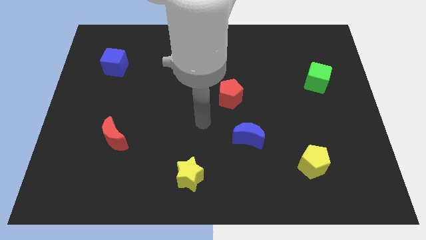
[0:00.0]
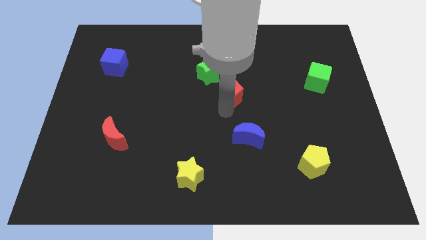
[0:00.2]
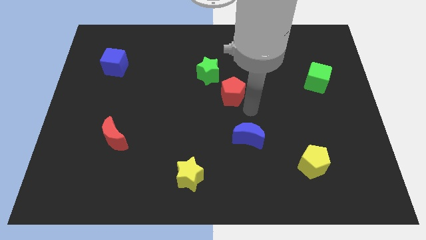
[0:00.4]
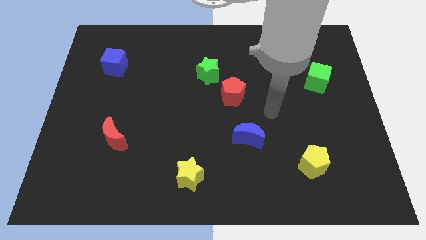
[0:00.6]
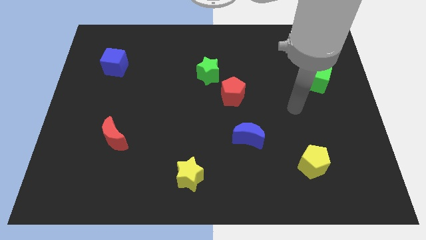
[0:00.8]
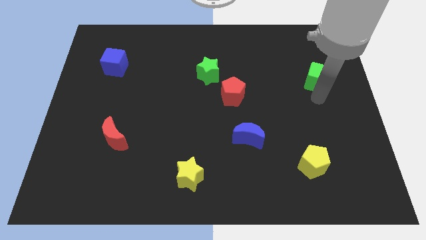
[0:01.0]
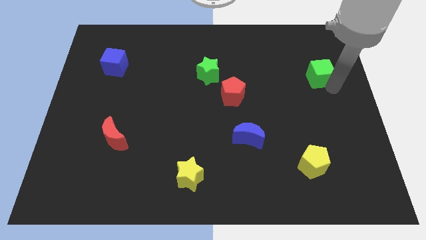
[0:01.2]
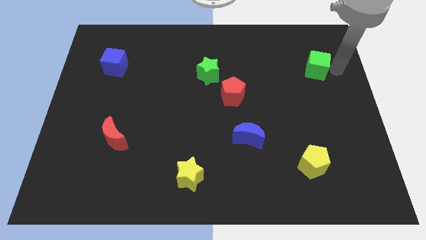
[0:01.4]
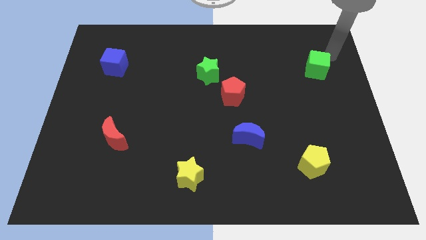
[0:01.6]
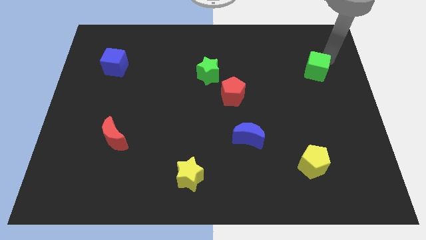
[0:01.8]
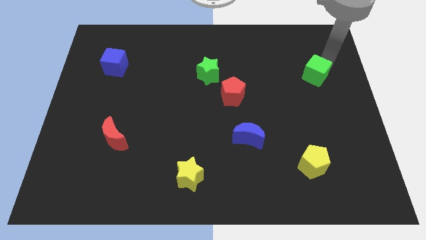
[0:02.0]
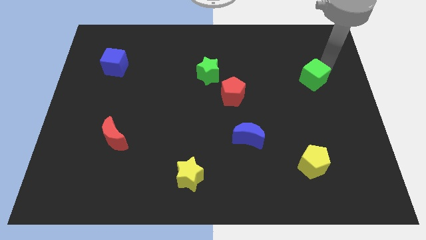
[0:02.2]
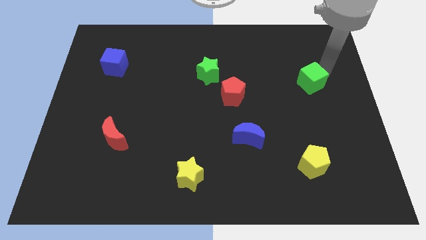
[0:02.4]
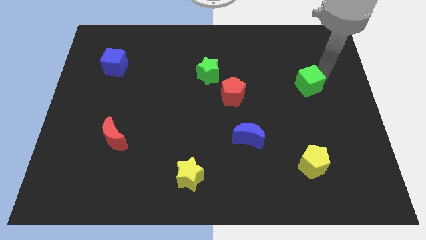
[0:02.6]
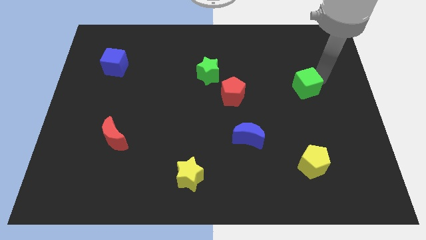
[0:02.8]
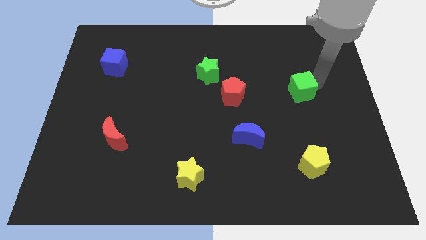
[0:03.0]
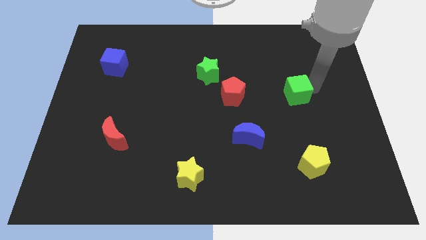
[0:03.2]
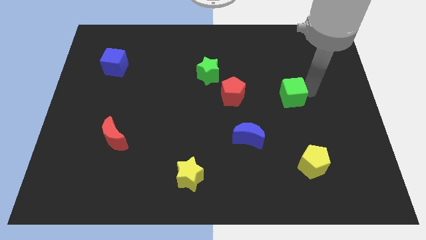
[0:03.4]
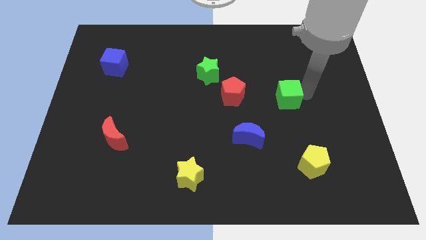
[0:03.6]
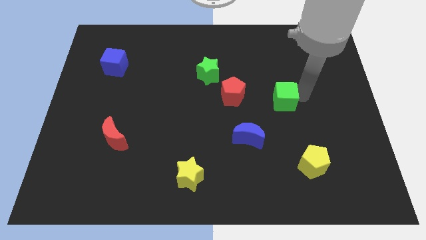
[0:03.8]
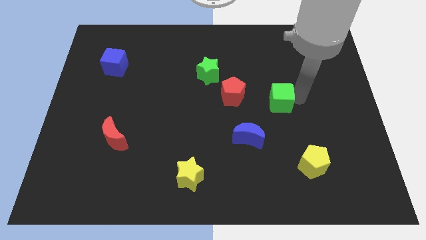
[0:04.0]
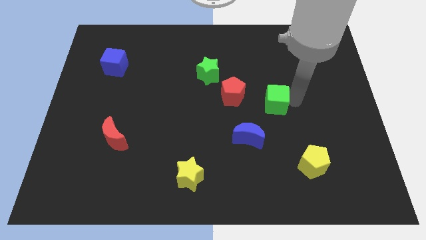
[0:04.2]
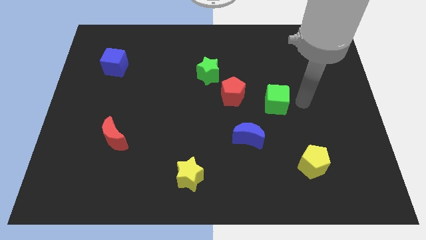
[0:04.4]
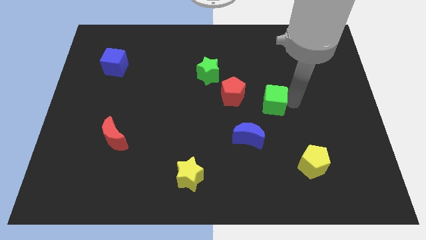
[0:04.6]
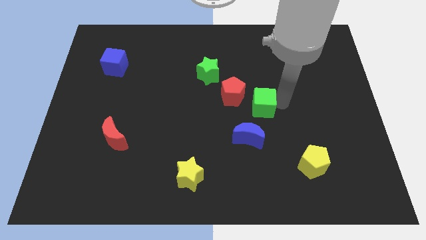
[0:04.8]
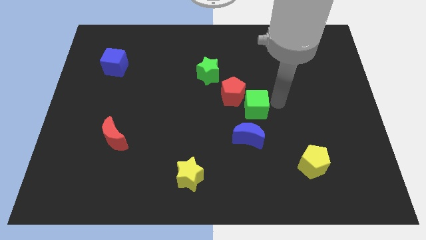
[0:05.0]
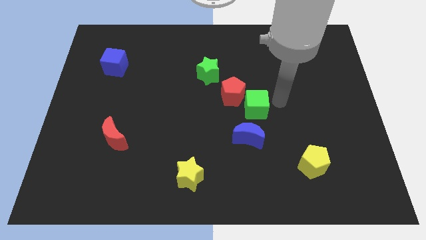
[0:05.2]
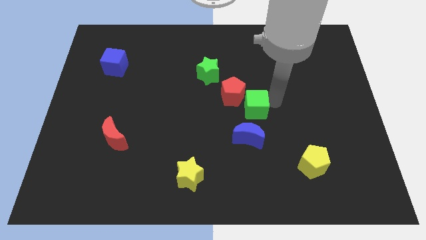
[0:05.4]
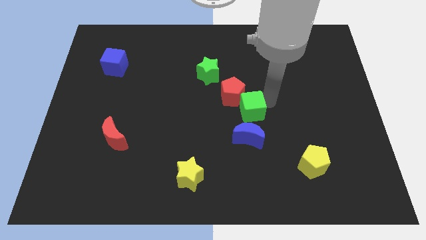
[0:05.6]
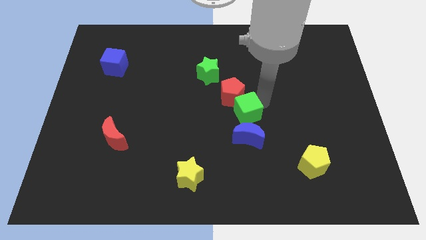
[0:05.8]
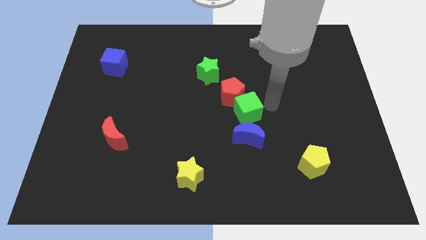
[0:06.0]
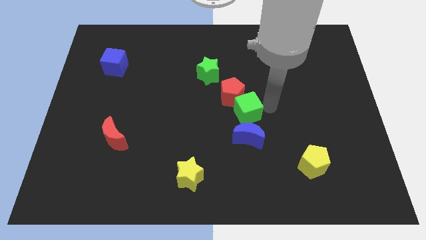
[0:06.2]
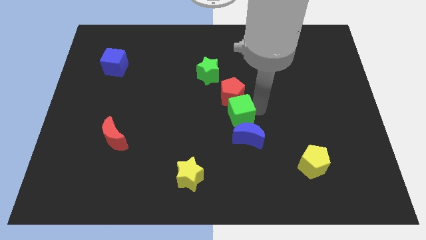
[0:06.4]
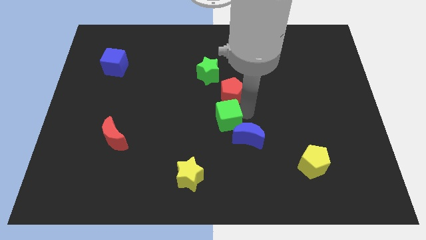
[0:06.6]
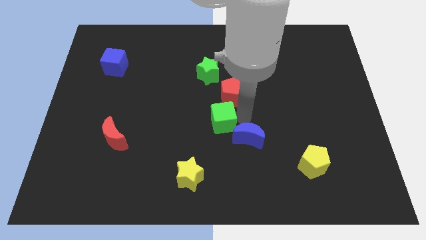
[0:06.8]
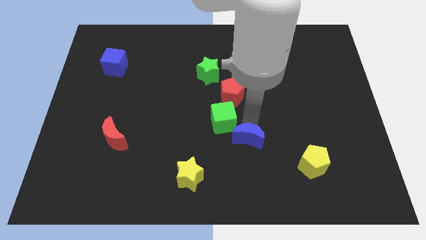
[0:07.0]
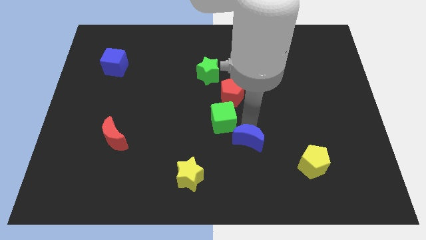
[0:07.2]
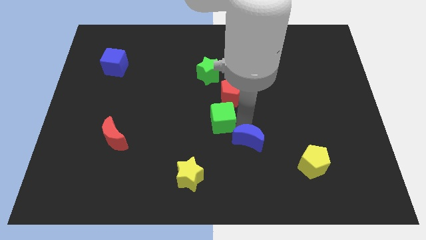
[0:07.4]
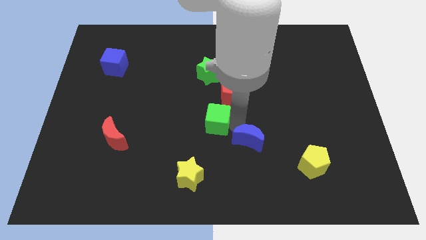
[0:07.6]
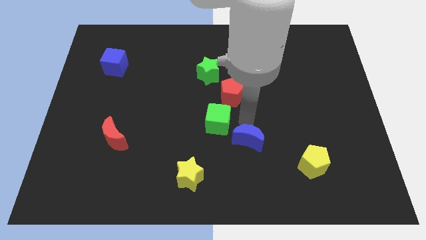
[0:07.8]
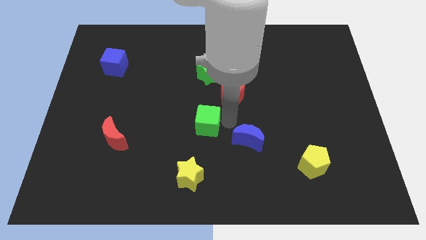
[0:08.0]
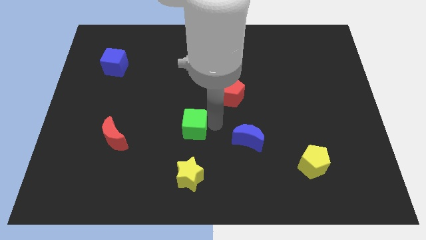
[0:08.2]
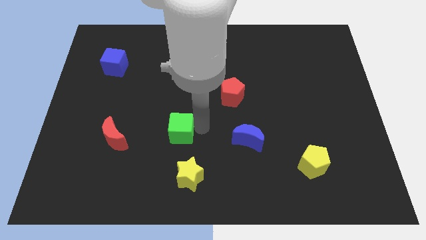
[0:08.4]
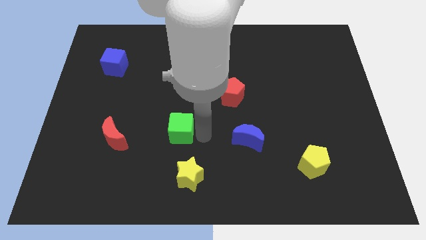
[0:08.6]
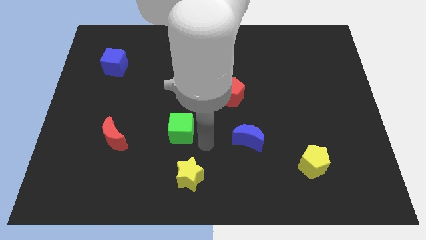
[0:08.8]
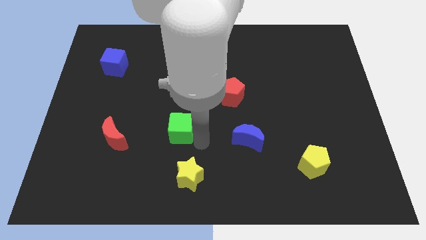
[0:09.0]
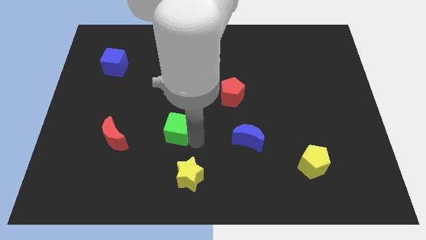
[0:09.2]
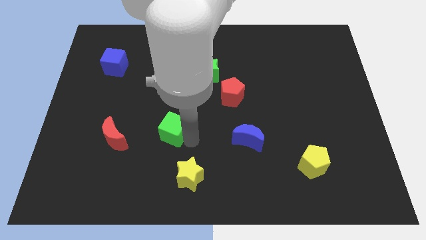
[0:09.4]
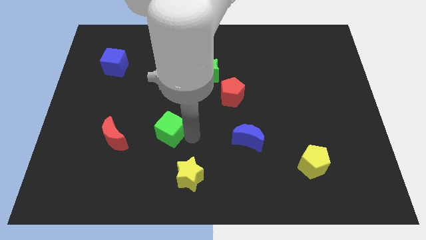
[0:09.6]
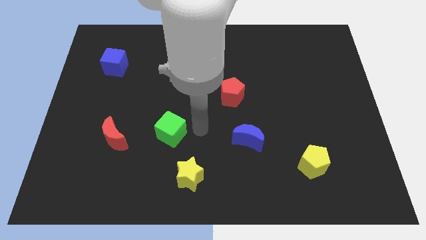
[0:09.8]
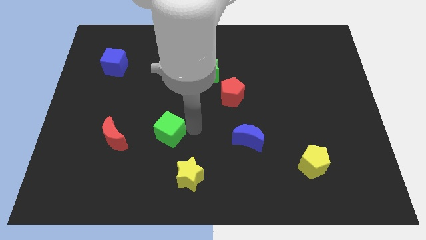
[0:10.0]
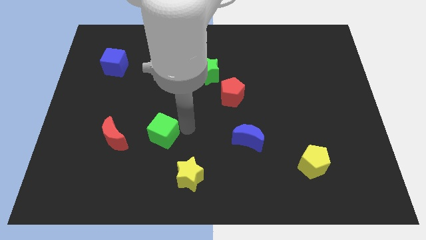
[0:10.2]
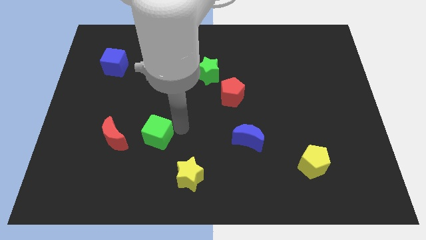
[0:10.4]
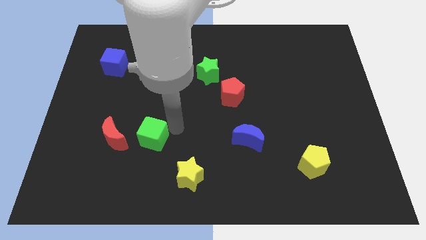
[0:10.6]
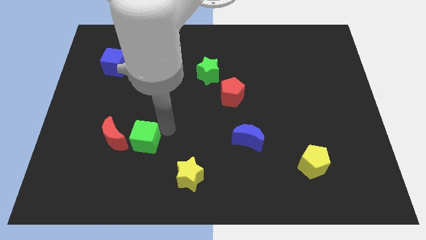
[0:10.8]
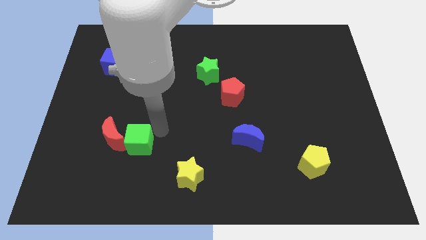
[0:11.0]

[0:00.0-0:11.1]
put the green cube close to the red moon

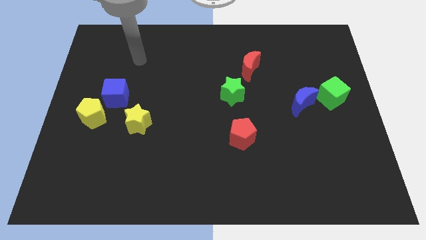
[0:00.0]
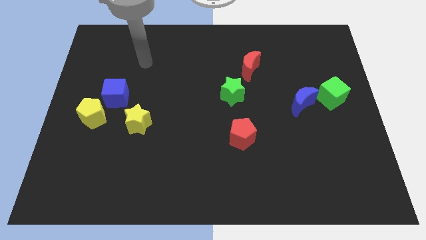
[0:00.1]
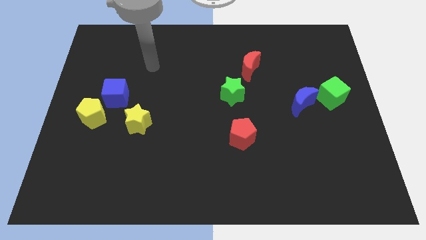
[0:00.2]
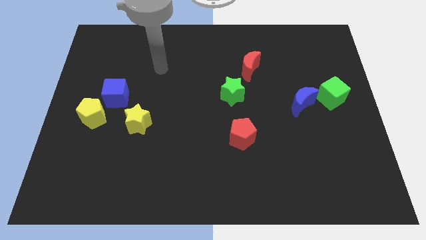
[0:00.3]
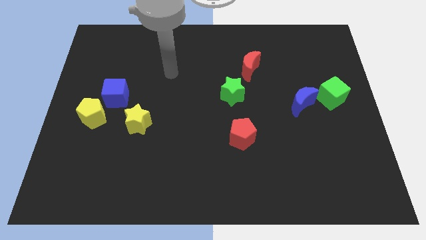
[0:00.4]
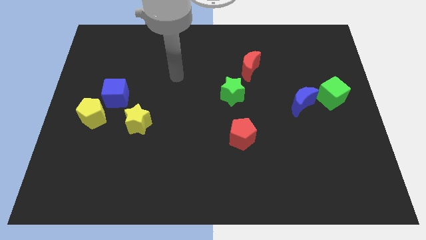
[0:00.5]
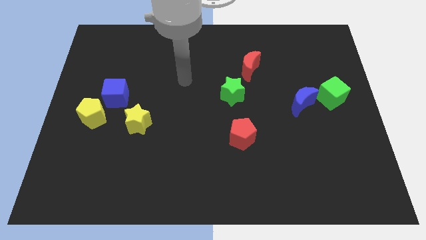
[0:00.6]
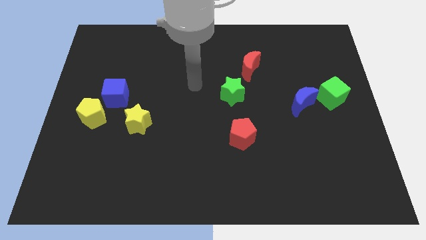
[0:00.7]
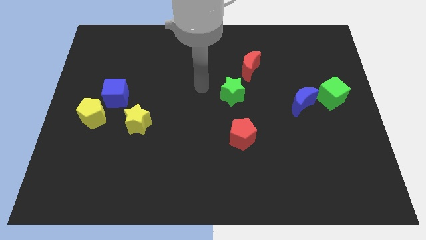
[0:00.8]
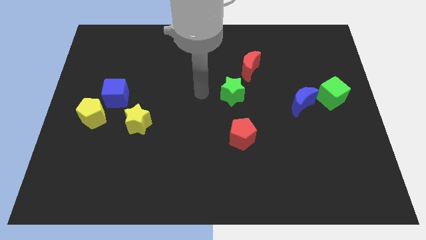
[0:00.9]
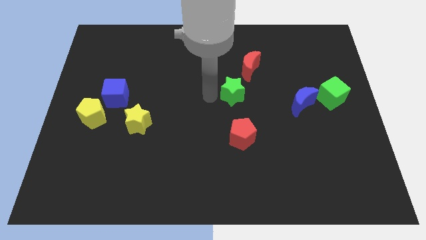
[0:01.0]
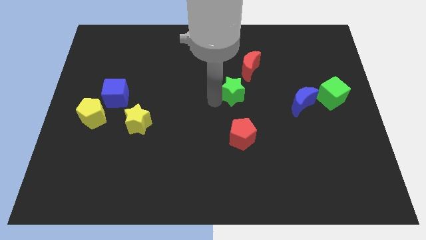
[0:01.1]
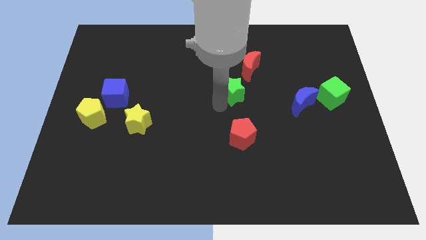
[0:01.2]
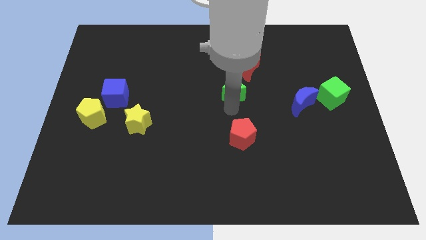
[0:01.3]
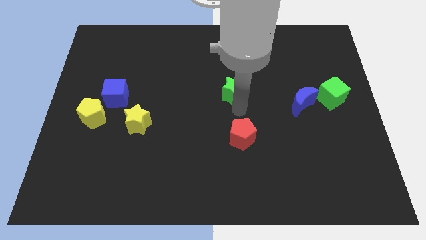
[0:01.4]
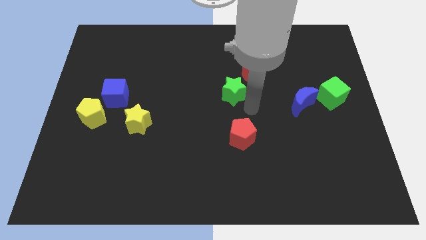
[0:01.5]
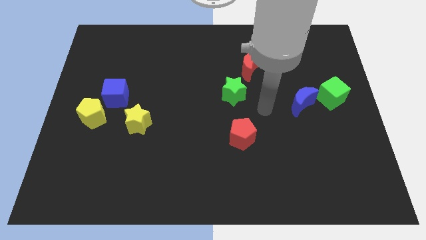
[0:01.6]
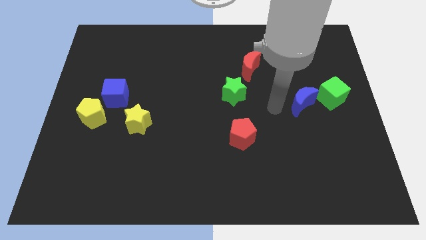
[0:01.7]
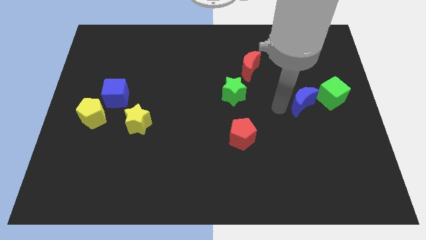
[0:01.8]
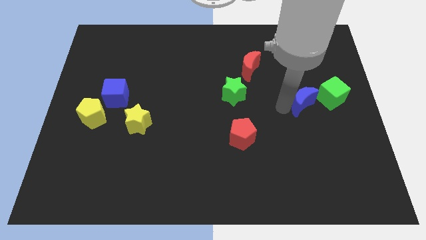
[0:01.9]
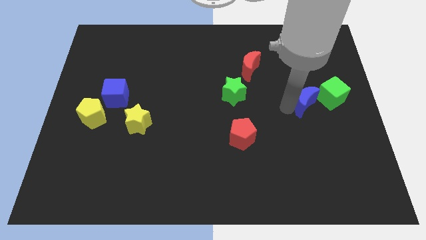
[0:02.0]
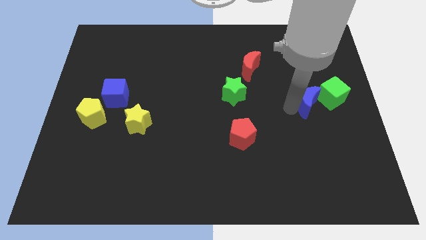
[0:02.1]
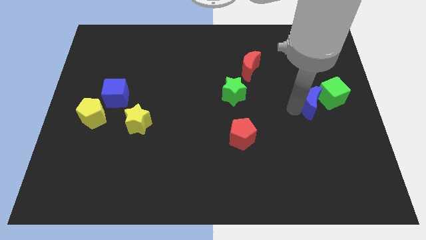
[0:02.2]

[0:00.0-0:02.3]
slide the blue moon towards the green cube
